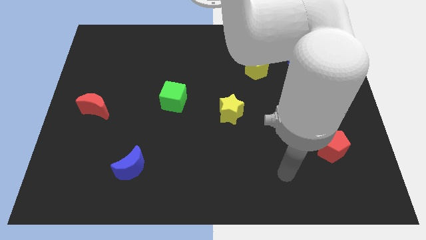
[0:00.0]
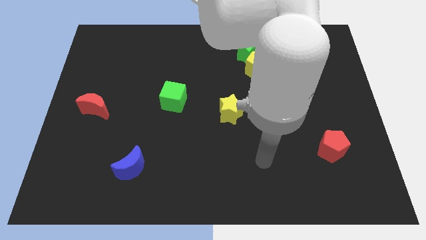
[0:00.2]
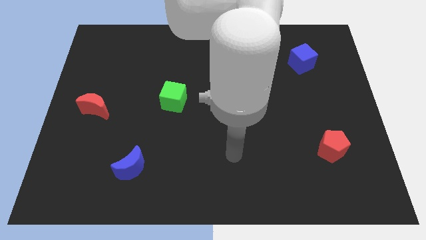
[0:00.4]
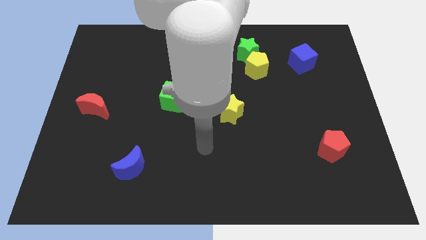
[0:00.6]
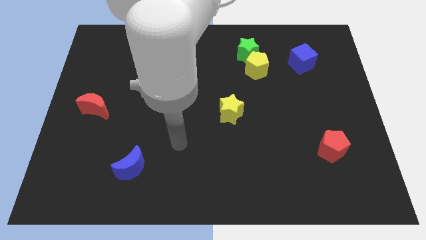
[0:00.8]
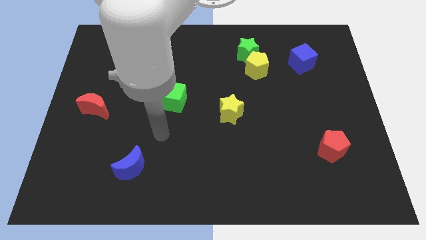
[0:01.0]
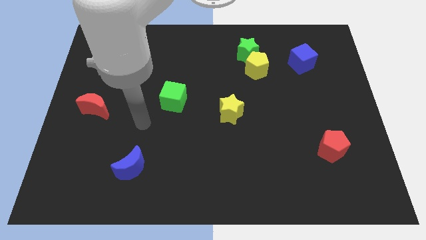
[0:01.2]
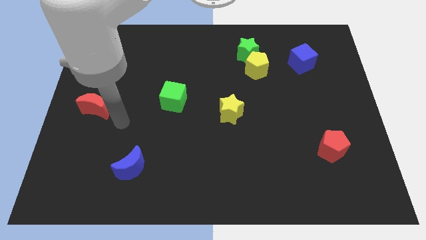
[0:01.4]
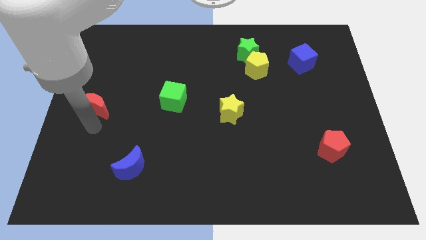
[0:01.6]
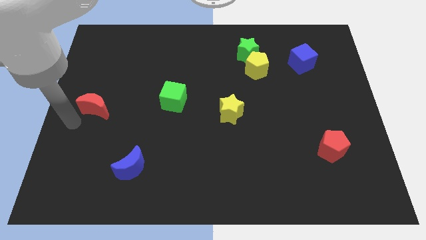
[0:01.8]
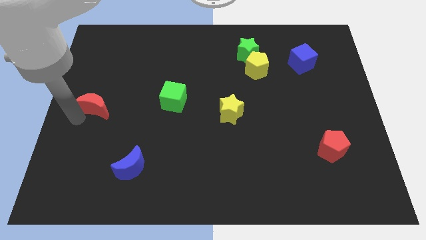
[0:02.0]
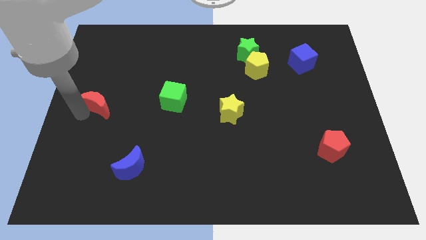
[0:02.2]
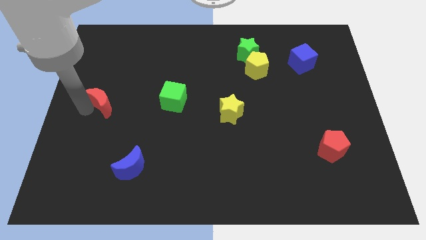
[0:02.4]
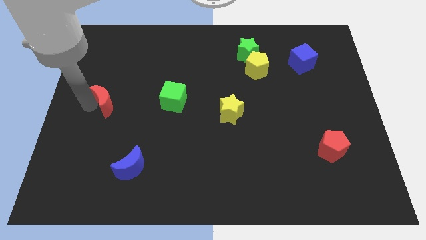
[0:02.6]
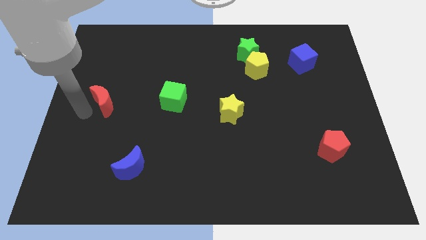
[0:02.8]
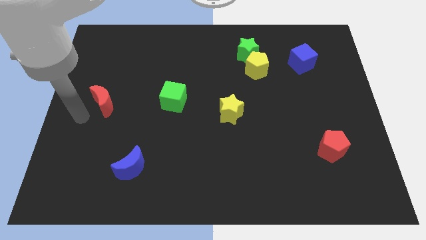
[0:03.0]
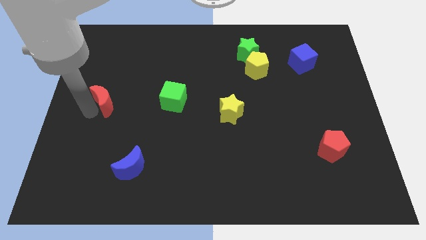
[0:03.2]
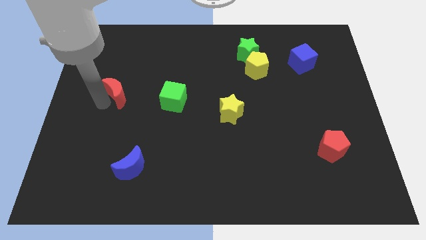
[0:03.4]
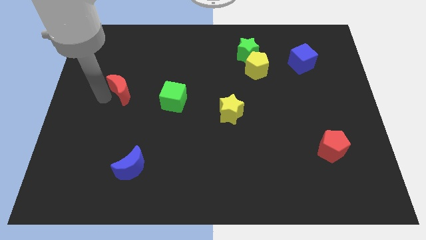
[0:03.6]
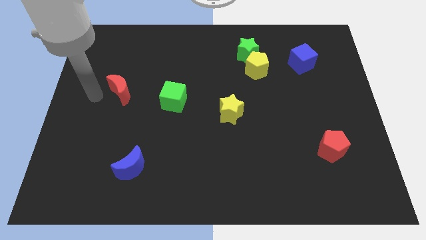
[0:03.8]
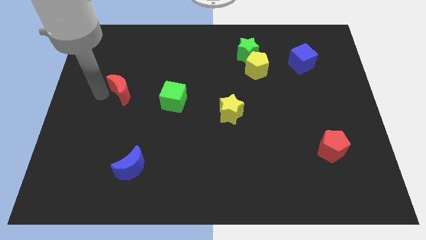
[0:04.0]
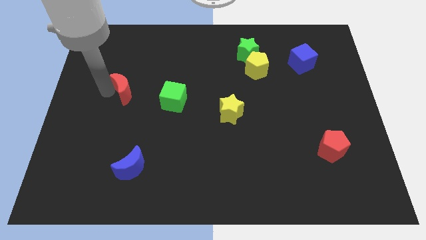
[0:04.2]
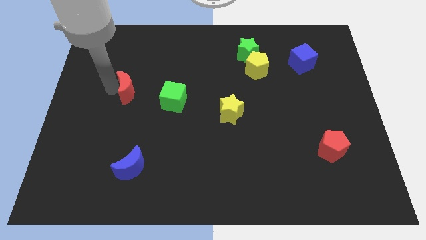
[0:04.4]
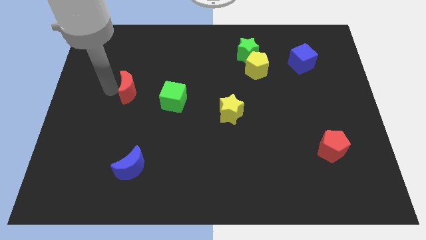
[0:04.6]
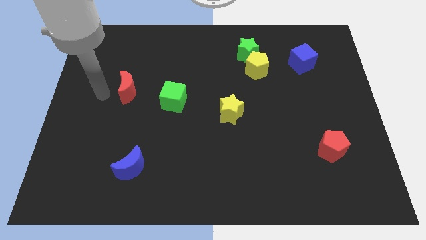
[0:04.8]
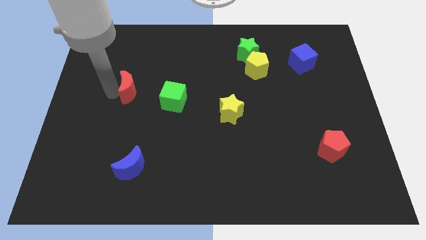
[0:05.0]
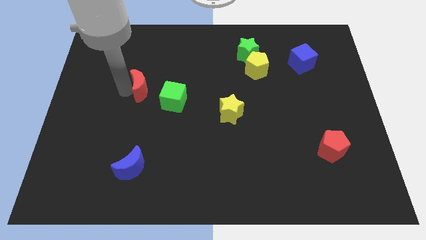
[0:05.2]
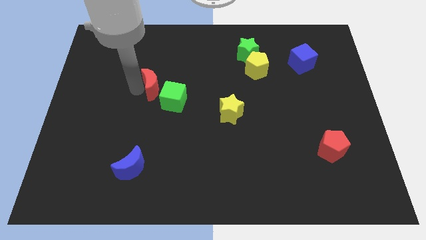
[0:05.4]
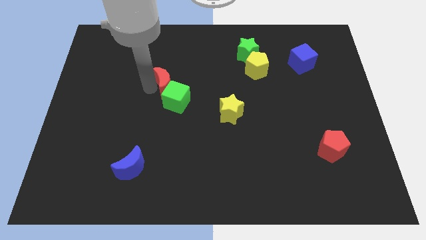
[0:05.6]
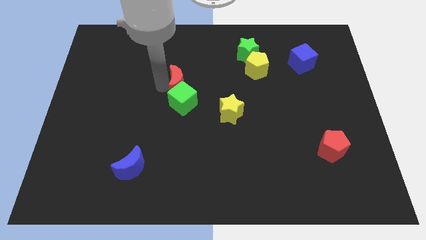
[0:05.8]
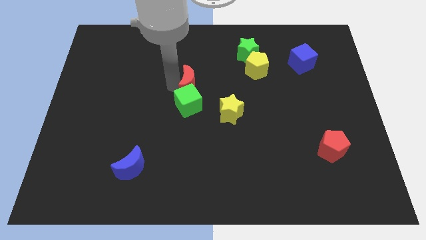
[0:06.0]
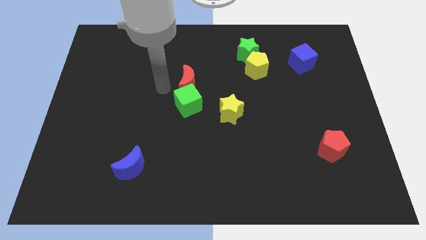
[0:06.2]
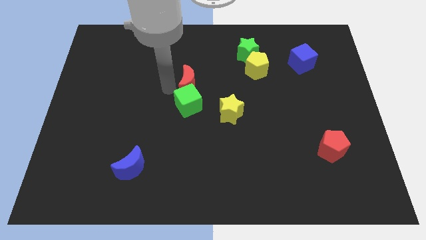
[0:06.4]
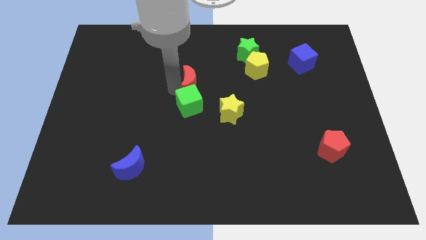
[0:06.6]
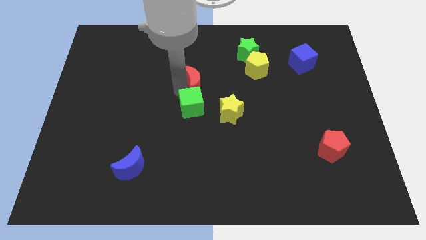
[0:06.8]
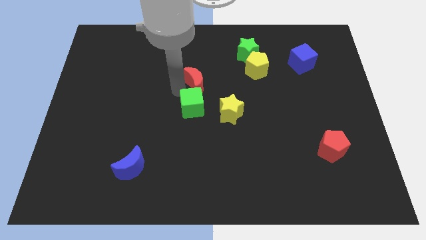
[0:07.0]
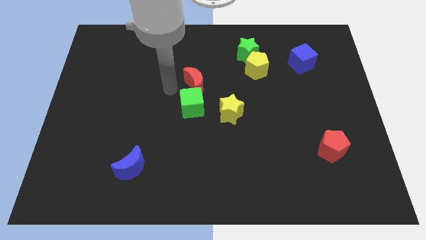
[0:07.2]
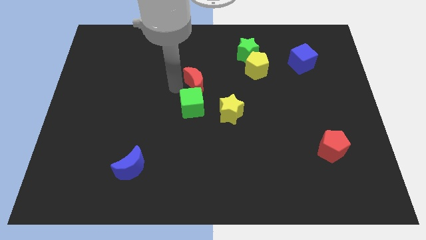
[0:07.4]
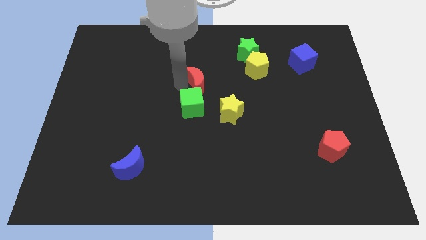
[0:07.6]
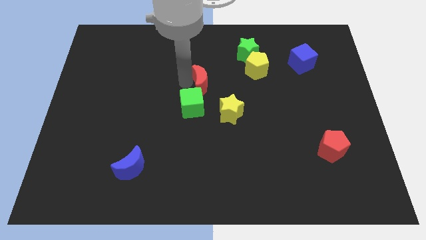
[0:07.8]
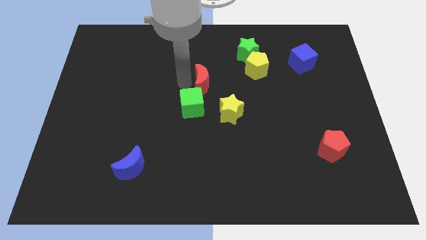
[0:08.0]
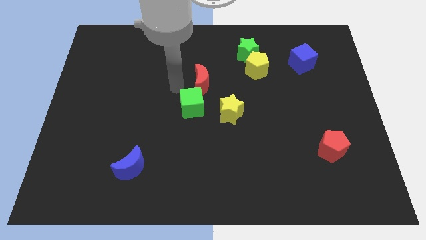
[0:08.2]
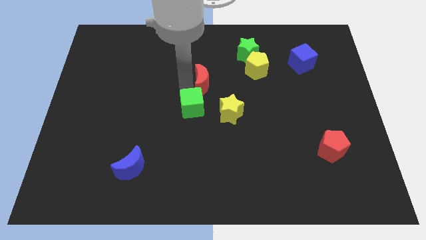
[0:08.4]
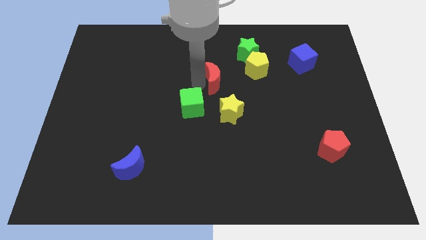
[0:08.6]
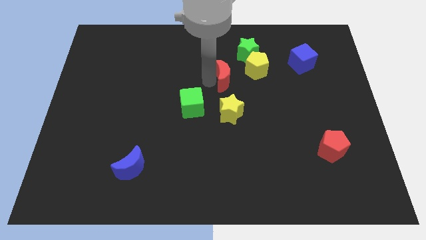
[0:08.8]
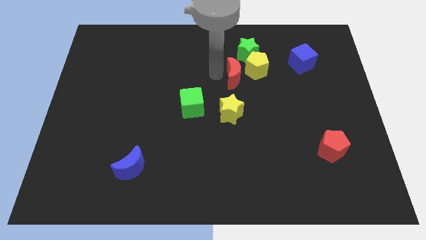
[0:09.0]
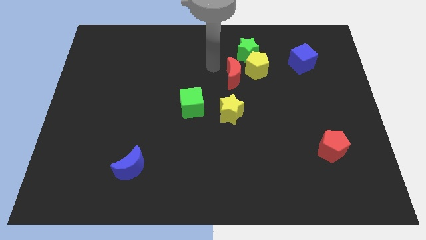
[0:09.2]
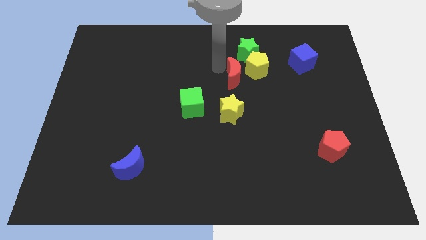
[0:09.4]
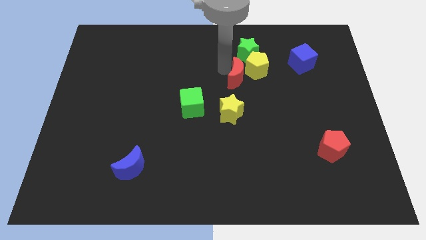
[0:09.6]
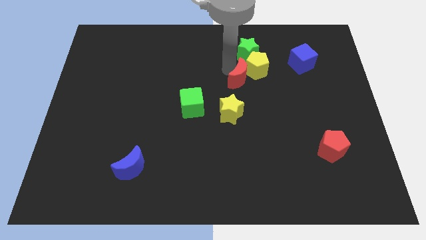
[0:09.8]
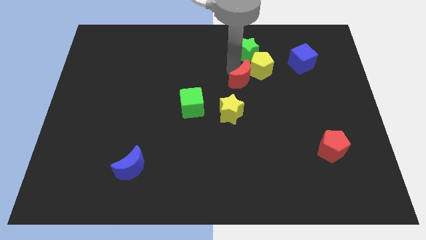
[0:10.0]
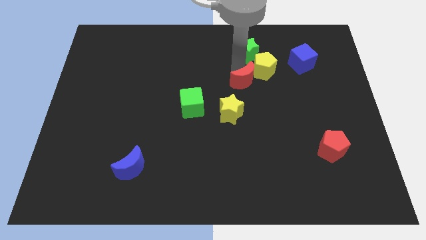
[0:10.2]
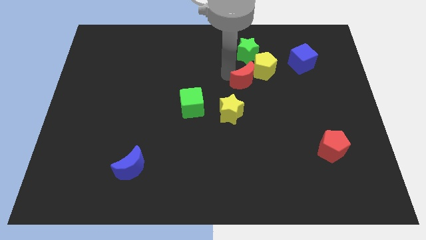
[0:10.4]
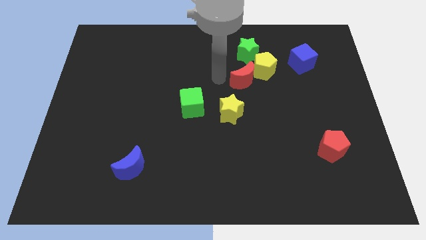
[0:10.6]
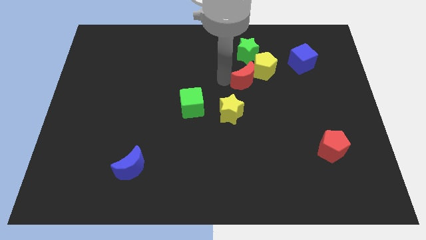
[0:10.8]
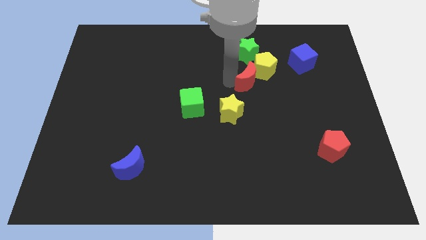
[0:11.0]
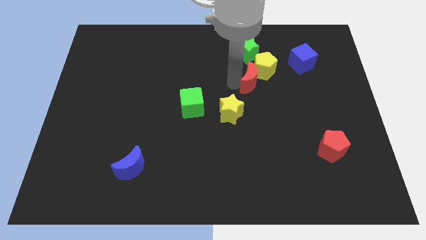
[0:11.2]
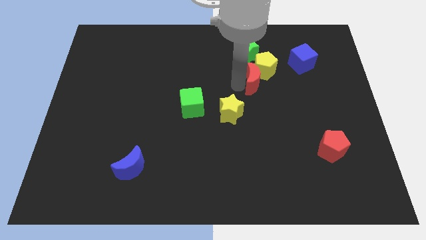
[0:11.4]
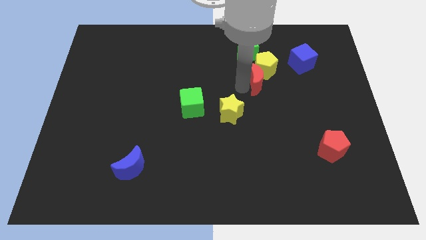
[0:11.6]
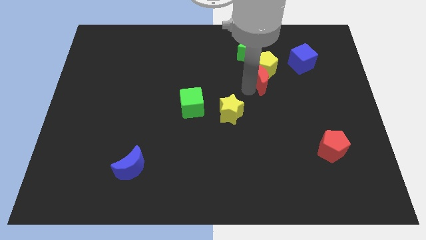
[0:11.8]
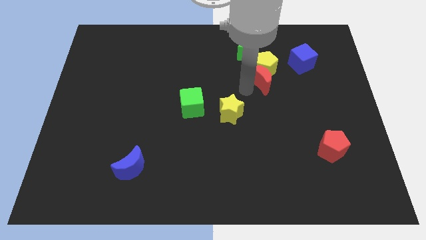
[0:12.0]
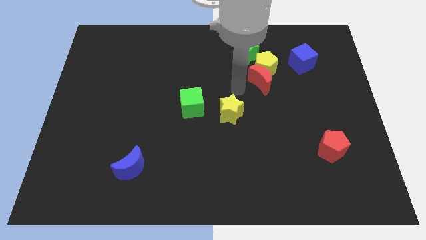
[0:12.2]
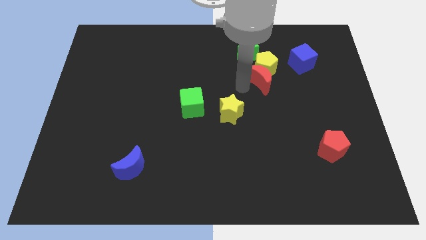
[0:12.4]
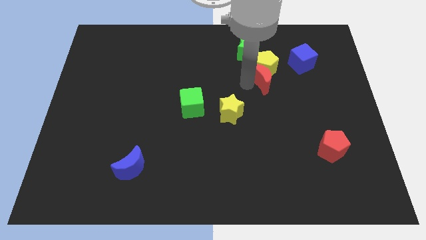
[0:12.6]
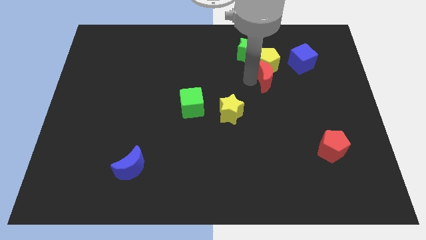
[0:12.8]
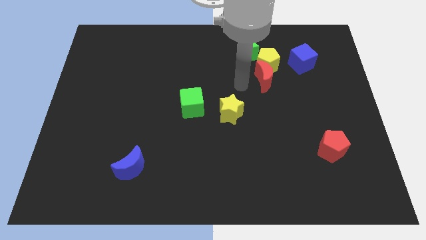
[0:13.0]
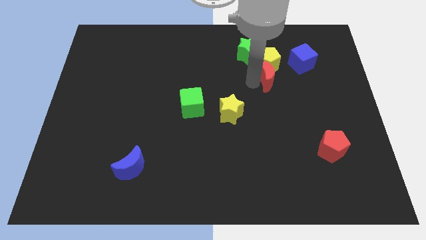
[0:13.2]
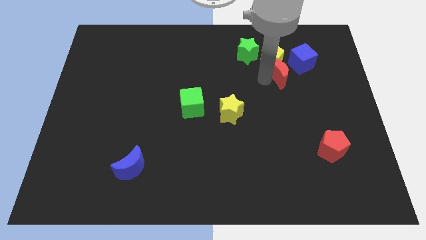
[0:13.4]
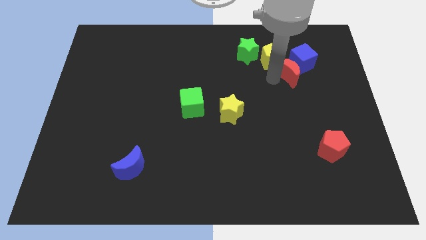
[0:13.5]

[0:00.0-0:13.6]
put the red moon towards the blue cube

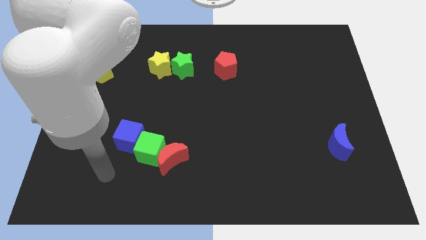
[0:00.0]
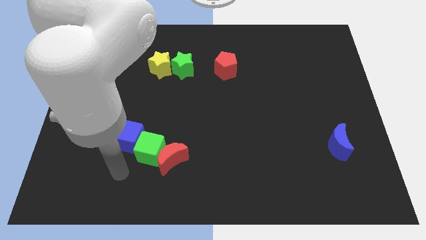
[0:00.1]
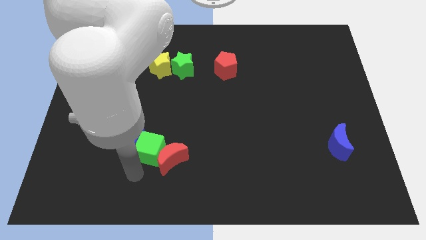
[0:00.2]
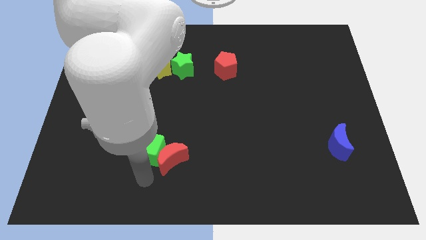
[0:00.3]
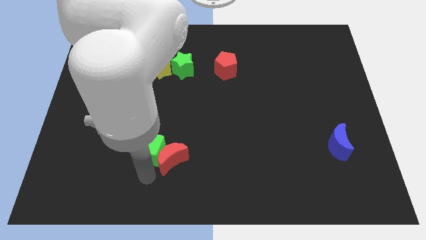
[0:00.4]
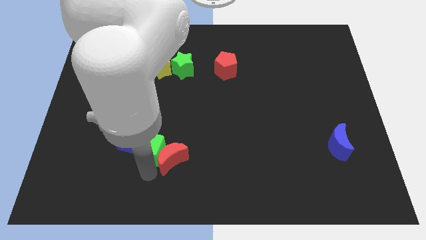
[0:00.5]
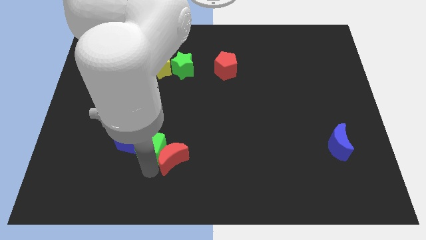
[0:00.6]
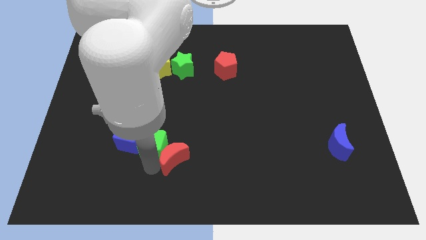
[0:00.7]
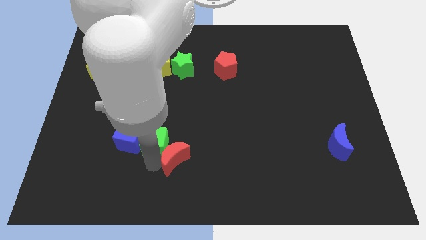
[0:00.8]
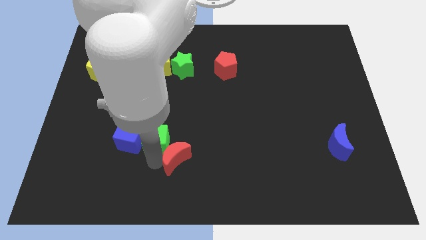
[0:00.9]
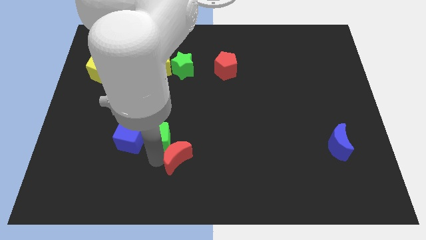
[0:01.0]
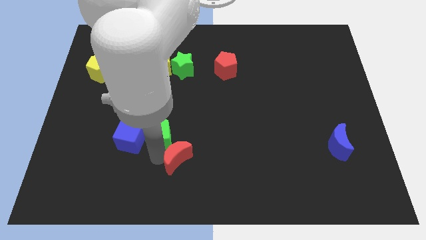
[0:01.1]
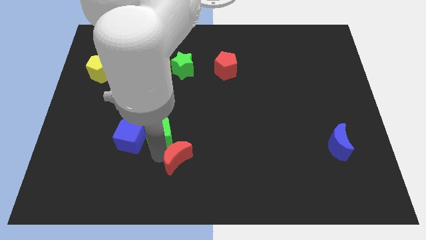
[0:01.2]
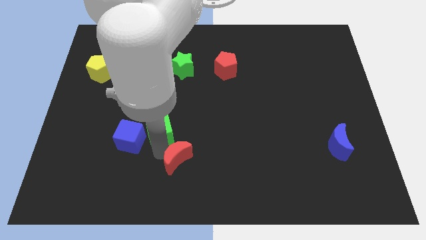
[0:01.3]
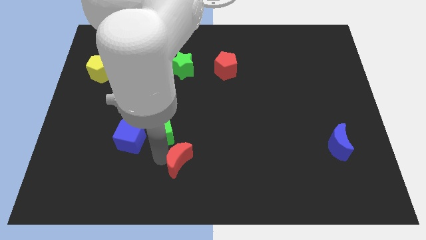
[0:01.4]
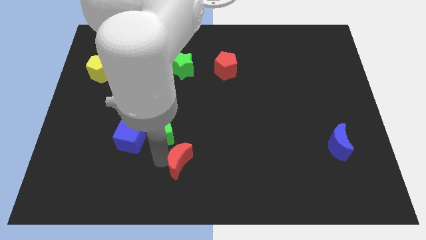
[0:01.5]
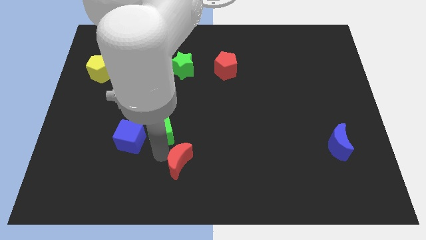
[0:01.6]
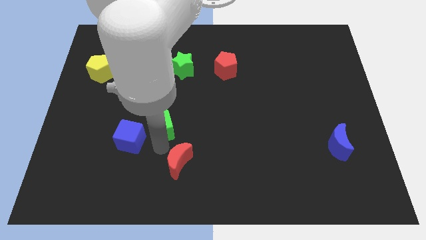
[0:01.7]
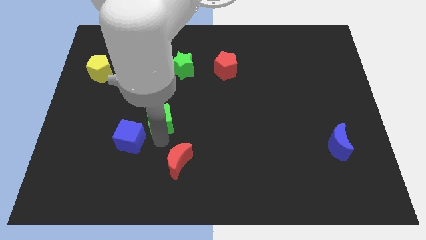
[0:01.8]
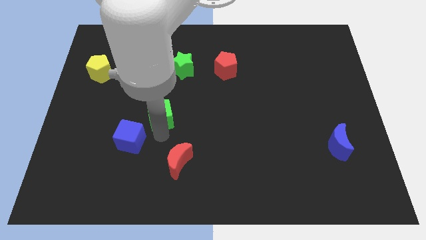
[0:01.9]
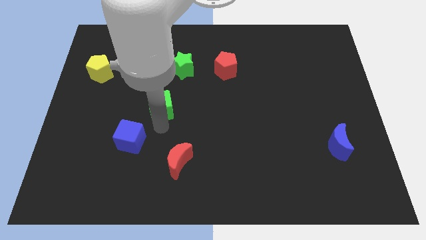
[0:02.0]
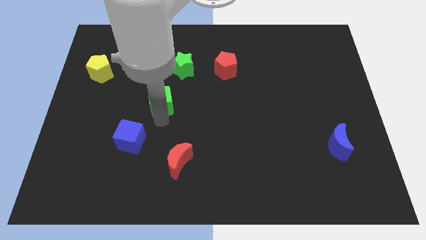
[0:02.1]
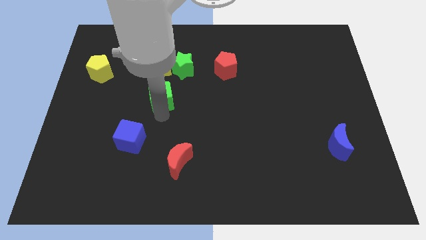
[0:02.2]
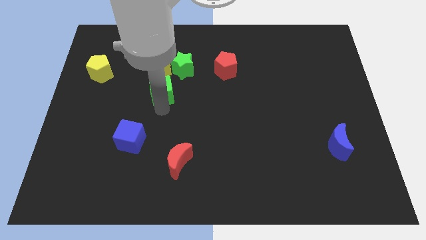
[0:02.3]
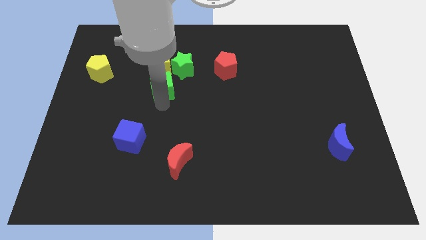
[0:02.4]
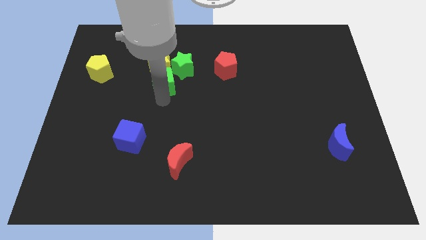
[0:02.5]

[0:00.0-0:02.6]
push the green cube towards the yellow star
